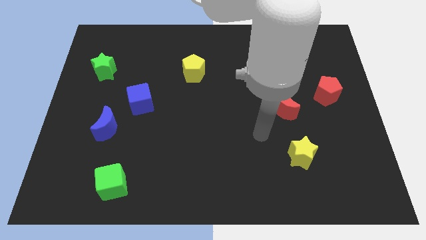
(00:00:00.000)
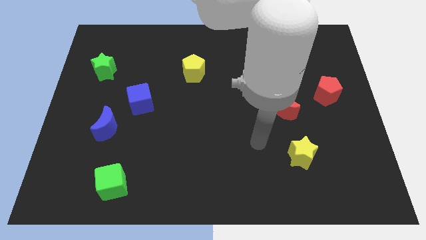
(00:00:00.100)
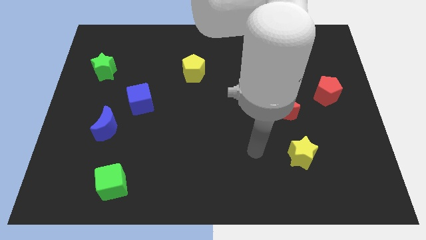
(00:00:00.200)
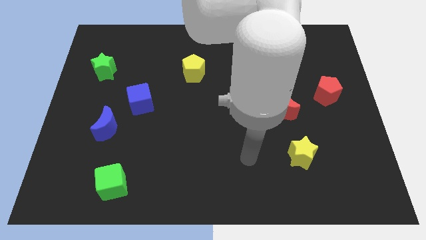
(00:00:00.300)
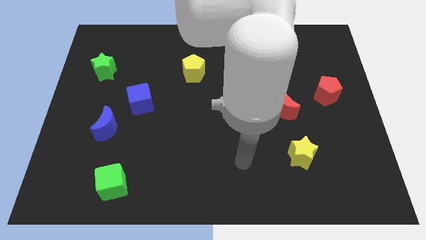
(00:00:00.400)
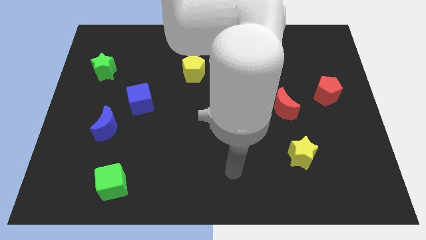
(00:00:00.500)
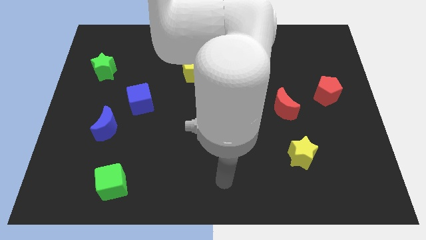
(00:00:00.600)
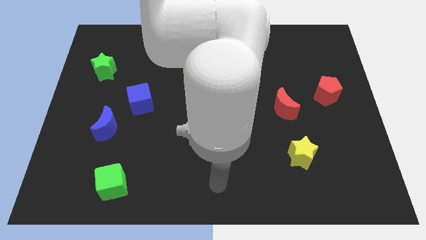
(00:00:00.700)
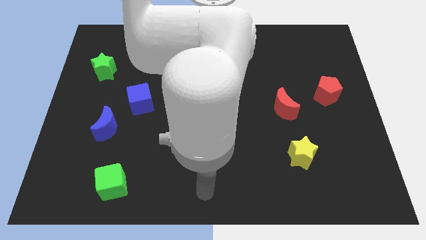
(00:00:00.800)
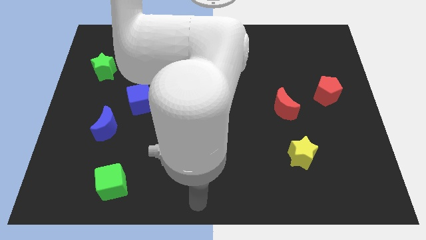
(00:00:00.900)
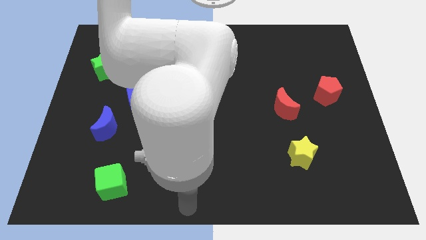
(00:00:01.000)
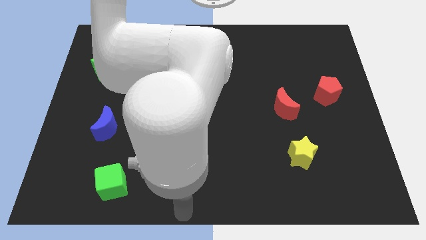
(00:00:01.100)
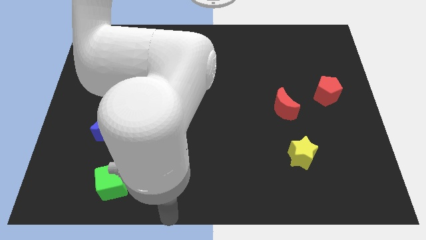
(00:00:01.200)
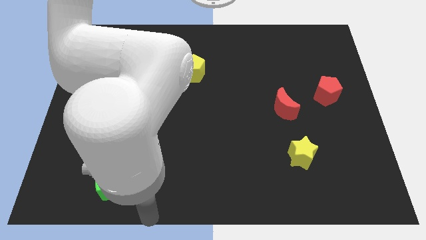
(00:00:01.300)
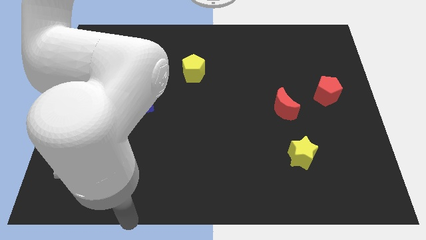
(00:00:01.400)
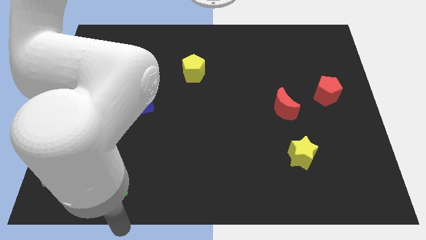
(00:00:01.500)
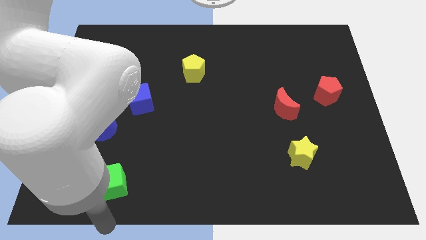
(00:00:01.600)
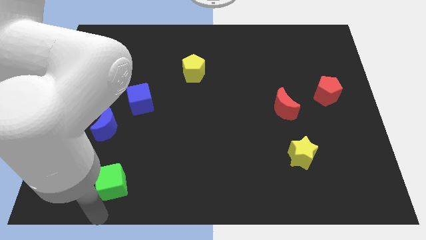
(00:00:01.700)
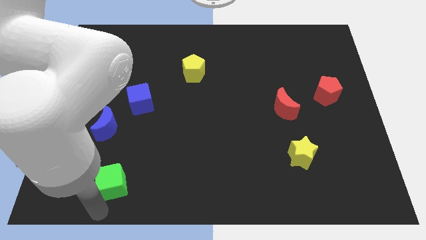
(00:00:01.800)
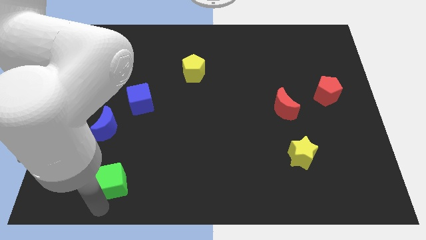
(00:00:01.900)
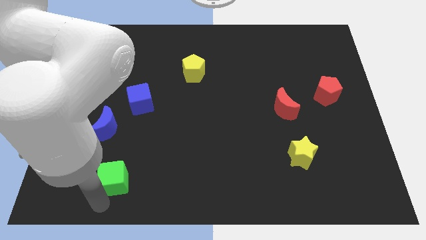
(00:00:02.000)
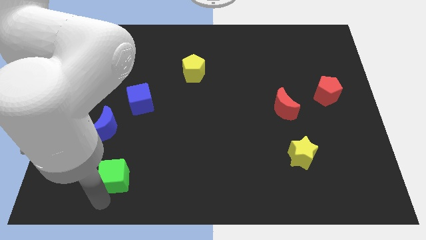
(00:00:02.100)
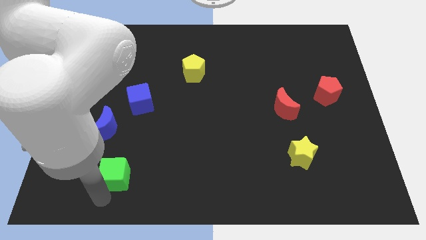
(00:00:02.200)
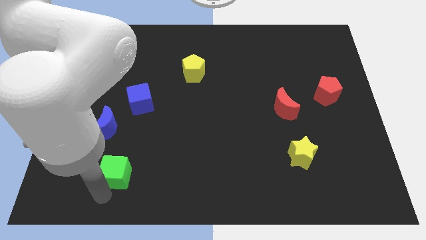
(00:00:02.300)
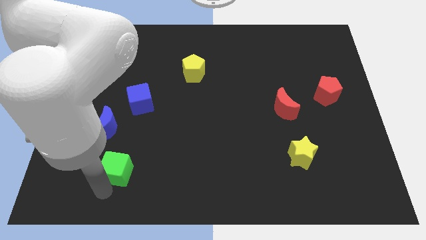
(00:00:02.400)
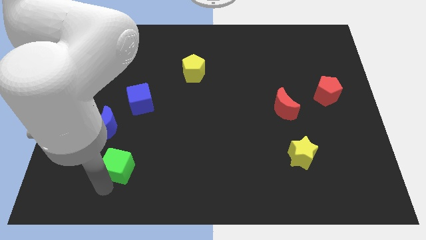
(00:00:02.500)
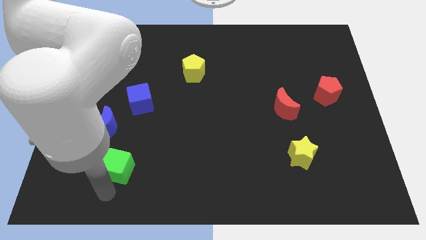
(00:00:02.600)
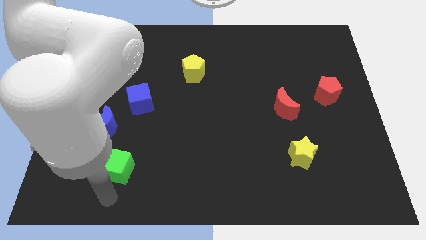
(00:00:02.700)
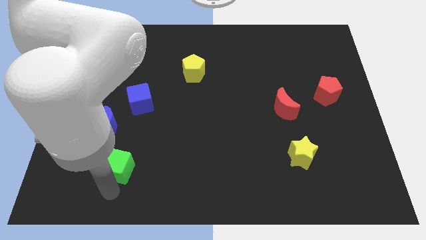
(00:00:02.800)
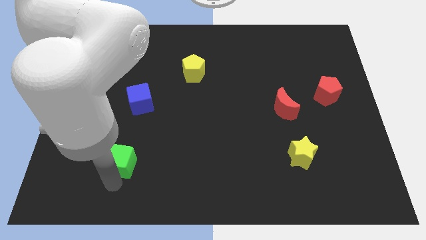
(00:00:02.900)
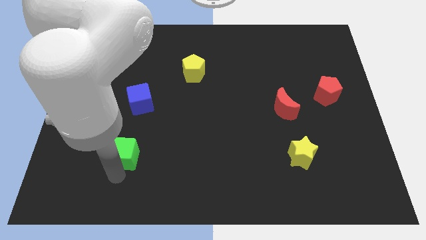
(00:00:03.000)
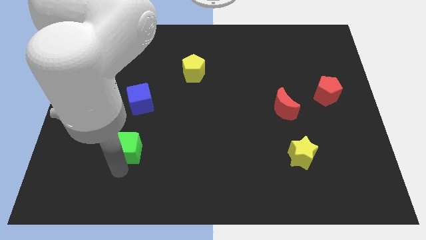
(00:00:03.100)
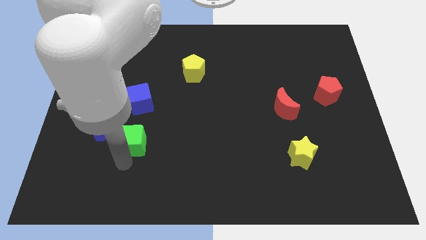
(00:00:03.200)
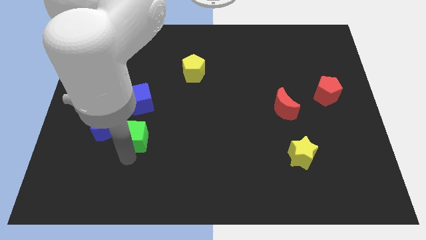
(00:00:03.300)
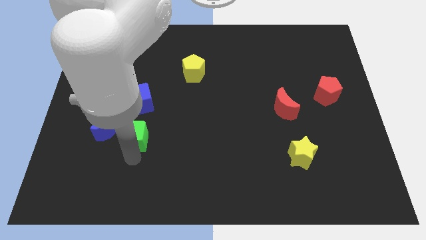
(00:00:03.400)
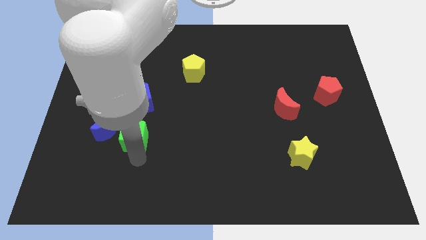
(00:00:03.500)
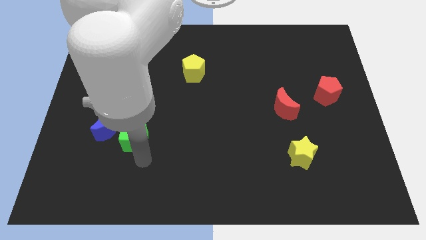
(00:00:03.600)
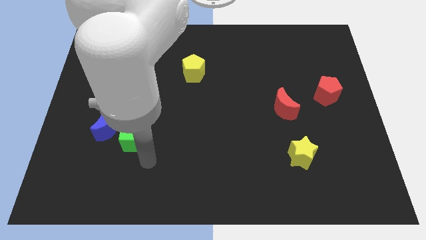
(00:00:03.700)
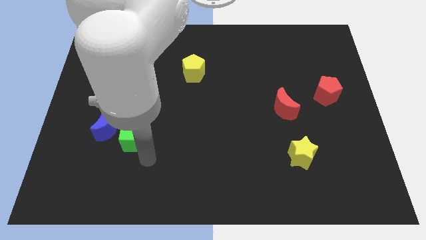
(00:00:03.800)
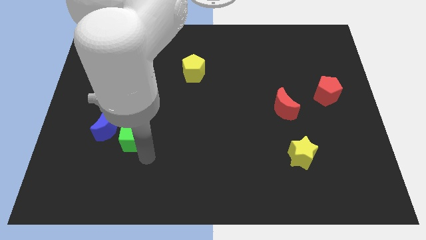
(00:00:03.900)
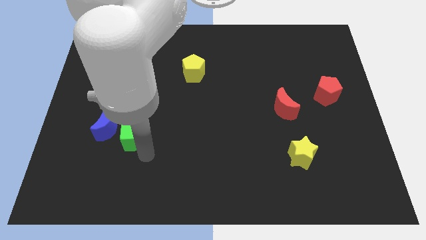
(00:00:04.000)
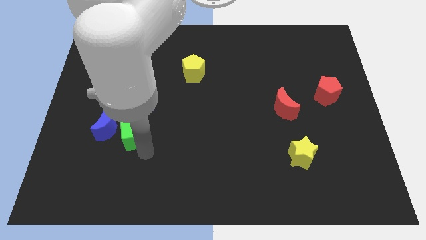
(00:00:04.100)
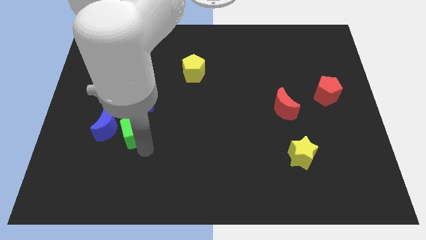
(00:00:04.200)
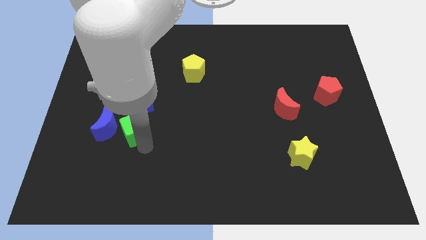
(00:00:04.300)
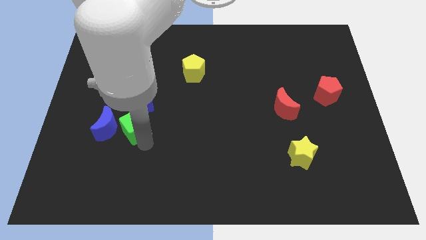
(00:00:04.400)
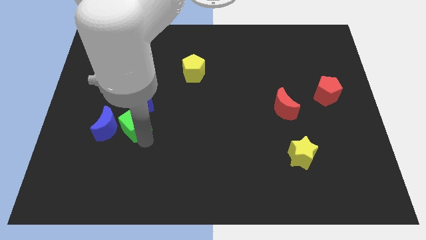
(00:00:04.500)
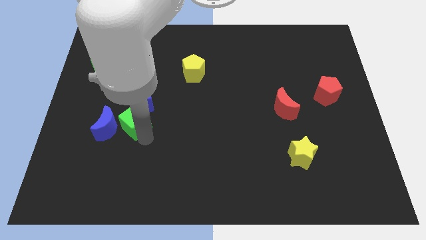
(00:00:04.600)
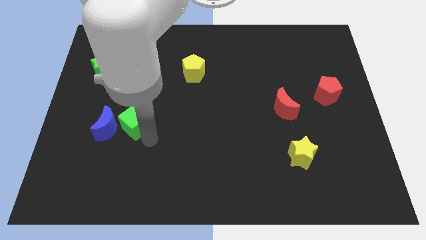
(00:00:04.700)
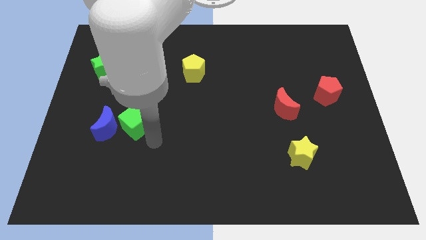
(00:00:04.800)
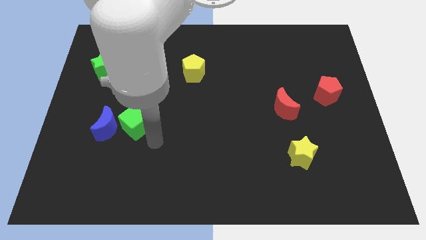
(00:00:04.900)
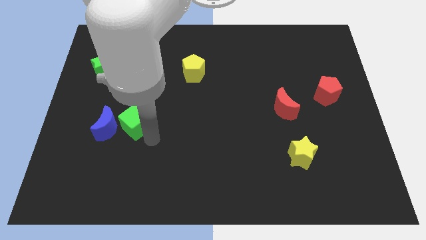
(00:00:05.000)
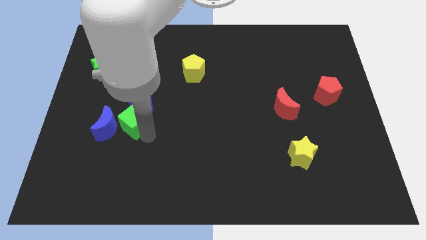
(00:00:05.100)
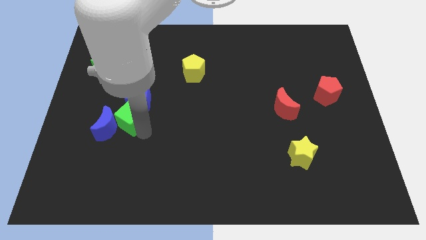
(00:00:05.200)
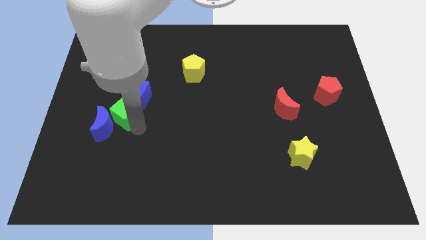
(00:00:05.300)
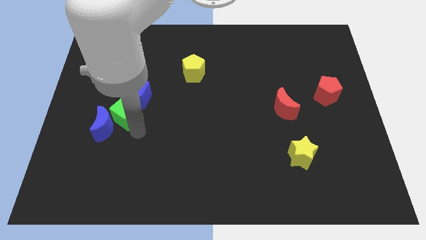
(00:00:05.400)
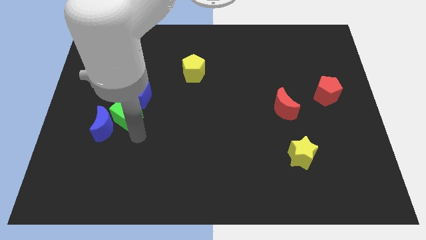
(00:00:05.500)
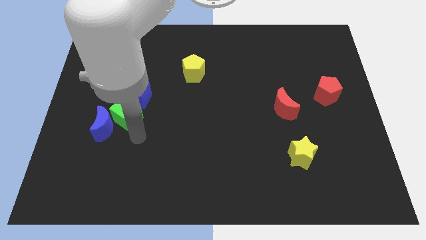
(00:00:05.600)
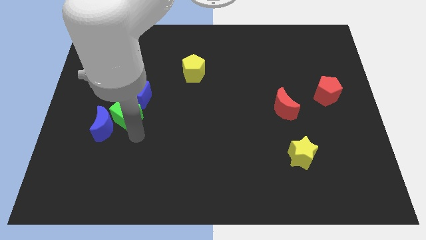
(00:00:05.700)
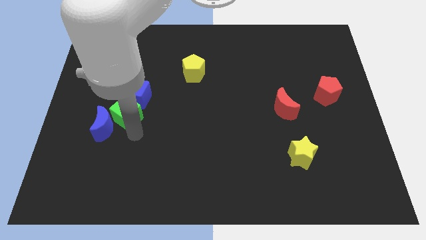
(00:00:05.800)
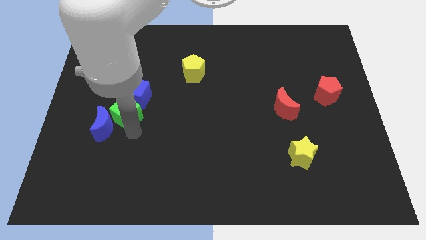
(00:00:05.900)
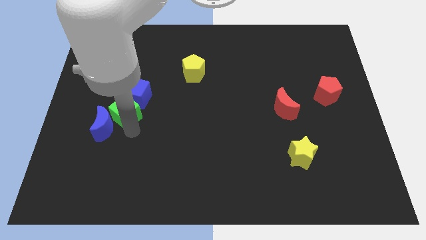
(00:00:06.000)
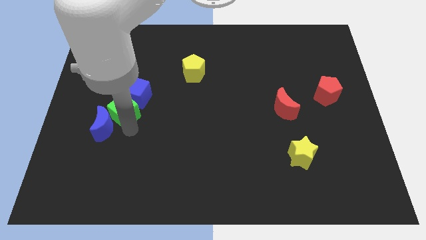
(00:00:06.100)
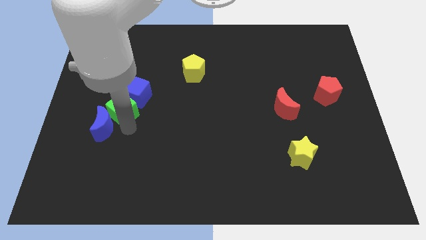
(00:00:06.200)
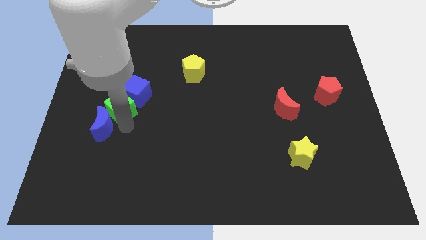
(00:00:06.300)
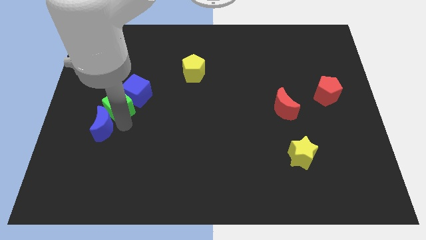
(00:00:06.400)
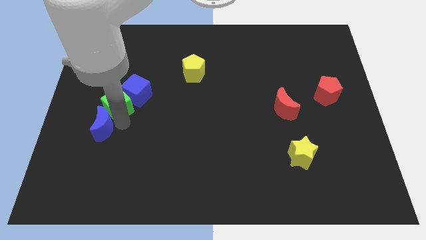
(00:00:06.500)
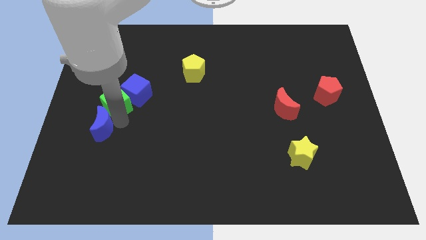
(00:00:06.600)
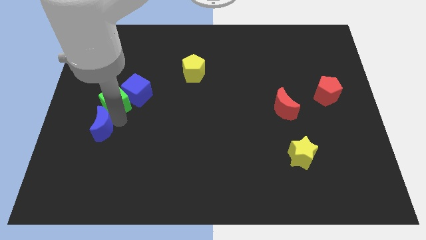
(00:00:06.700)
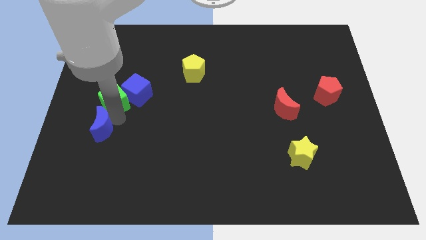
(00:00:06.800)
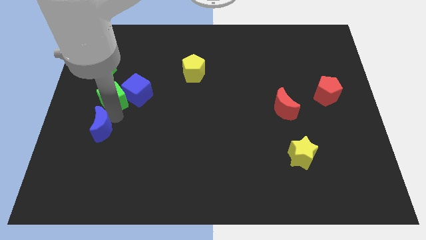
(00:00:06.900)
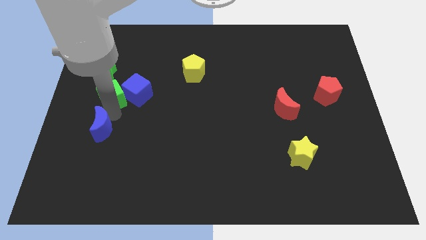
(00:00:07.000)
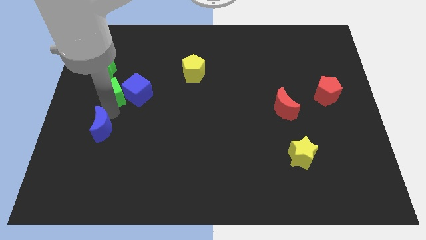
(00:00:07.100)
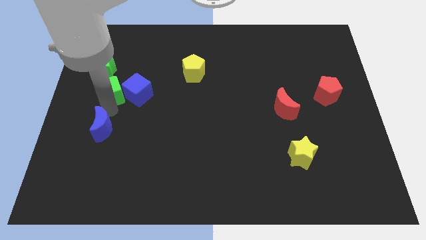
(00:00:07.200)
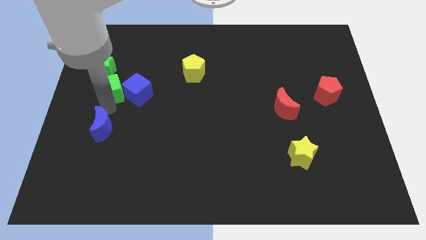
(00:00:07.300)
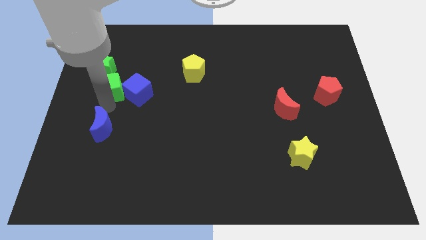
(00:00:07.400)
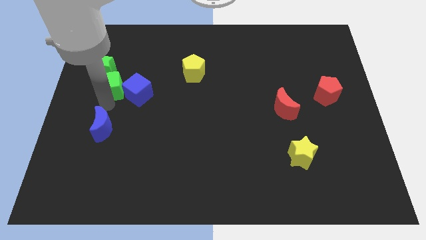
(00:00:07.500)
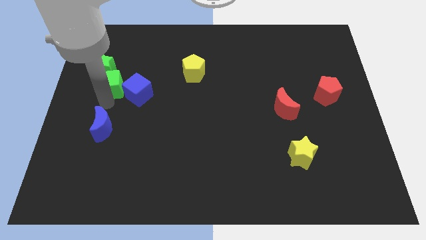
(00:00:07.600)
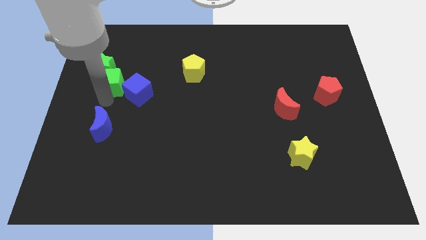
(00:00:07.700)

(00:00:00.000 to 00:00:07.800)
move the green cube close to the green star
